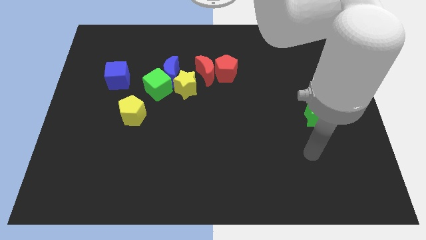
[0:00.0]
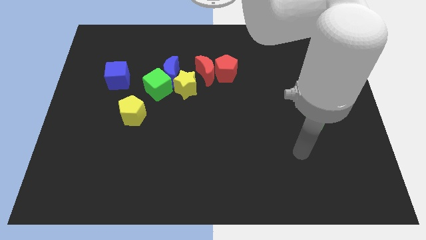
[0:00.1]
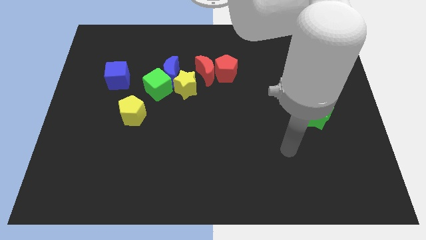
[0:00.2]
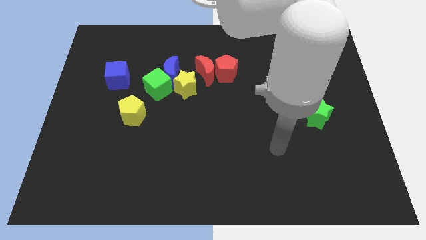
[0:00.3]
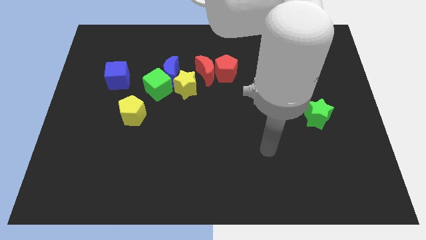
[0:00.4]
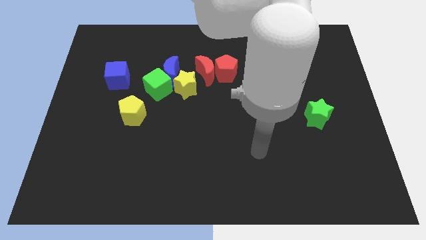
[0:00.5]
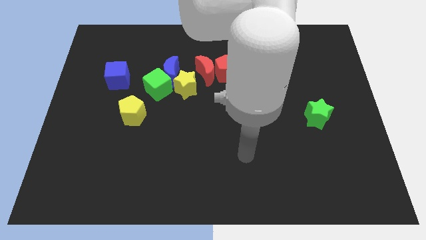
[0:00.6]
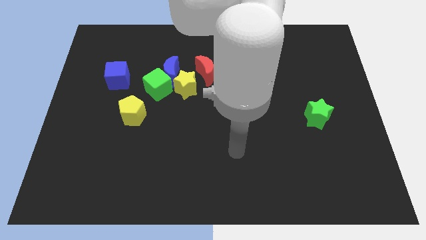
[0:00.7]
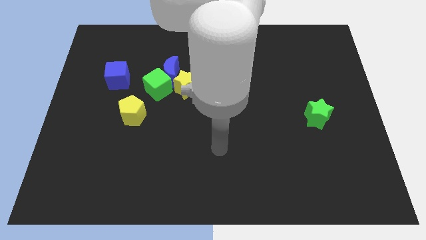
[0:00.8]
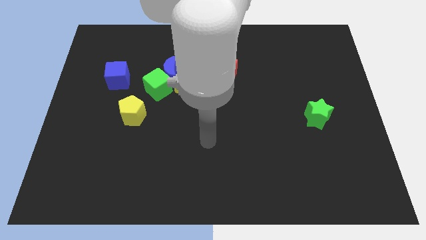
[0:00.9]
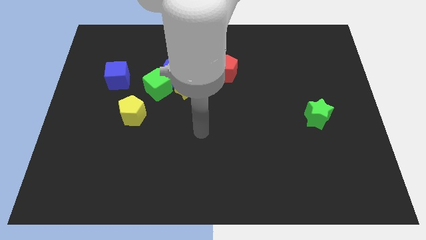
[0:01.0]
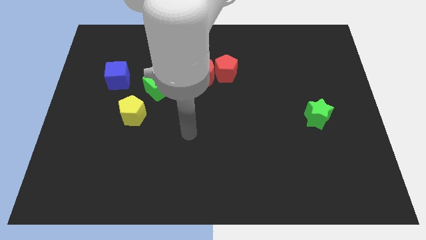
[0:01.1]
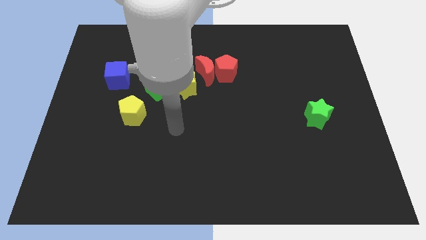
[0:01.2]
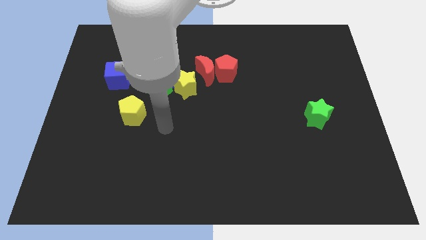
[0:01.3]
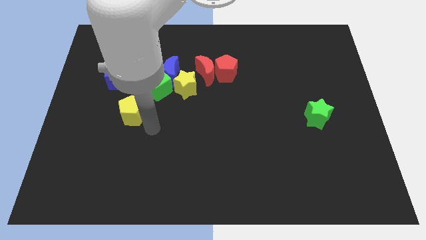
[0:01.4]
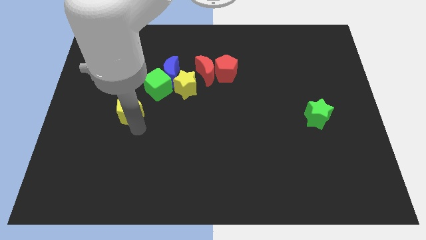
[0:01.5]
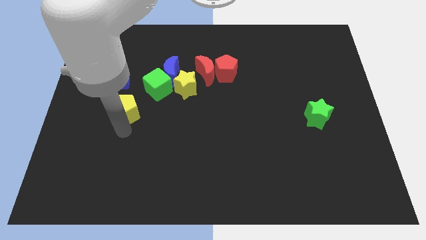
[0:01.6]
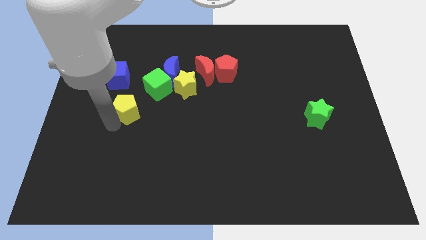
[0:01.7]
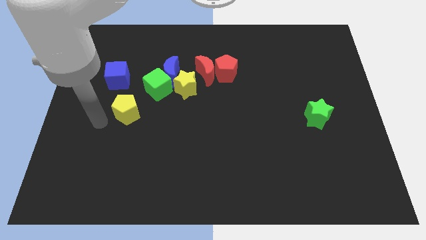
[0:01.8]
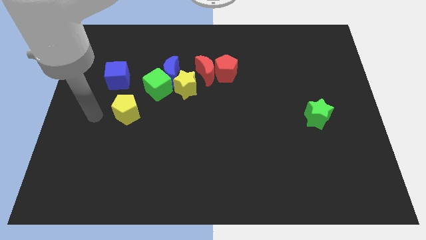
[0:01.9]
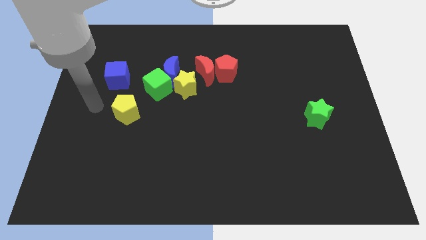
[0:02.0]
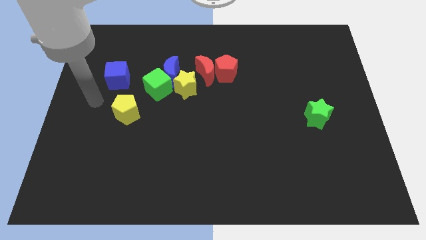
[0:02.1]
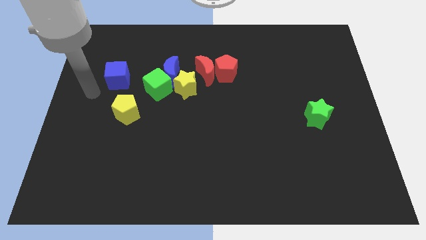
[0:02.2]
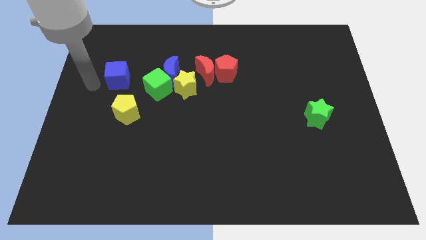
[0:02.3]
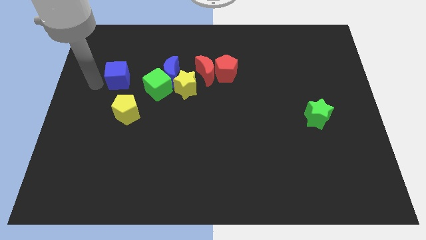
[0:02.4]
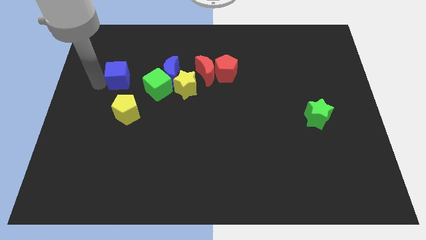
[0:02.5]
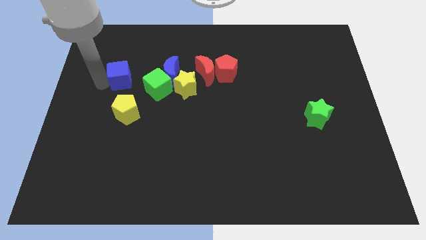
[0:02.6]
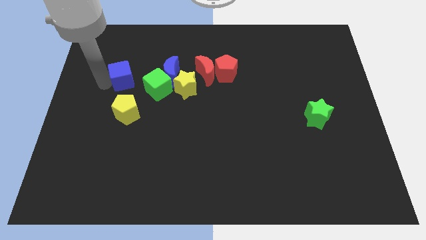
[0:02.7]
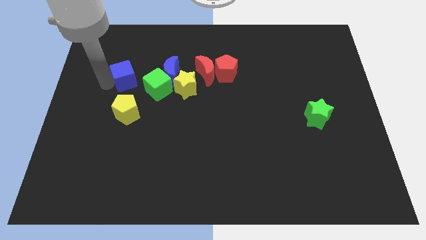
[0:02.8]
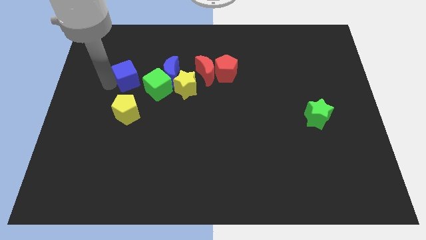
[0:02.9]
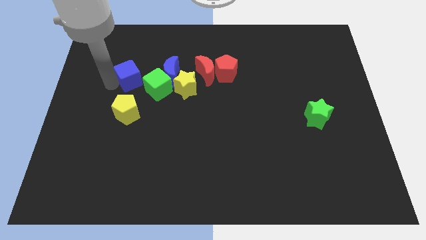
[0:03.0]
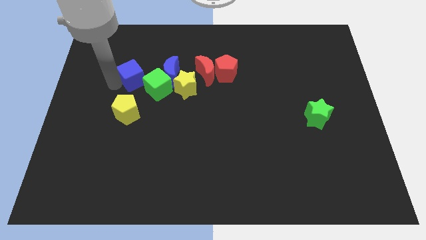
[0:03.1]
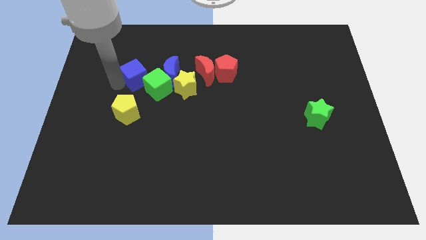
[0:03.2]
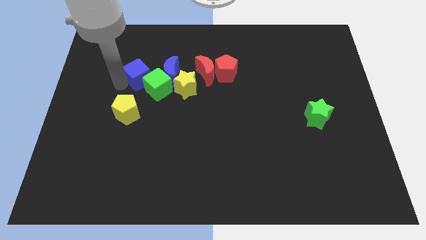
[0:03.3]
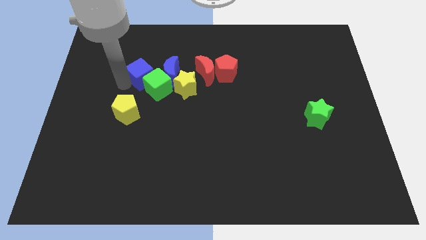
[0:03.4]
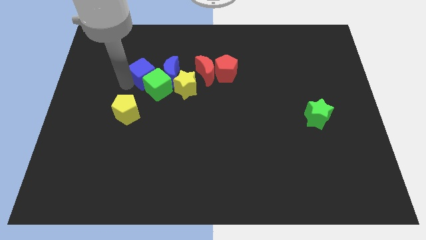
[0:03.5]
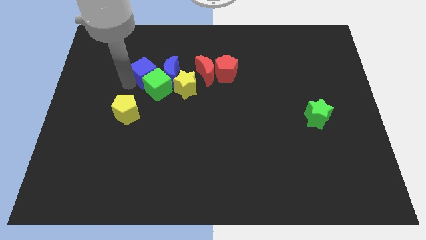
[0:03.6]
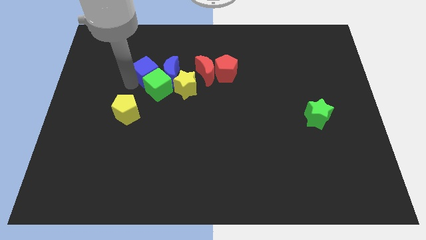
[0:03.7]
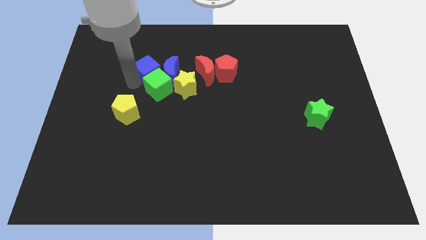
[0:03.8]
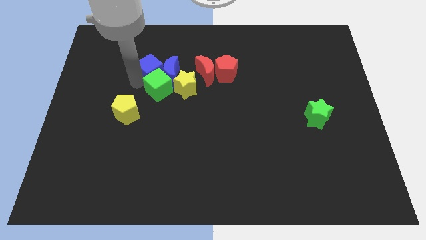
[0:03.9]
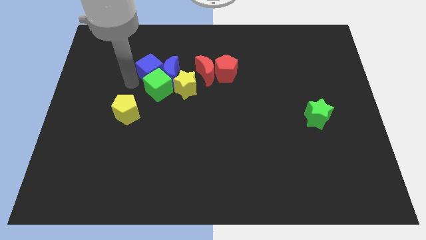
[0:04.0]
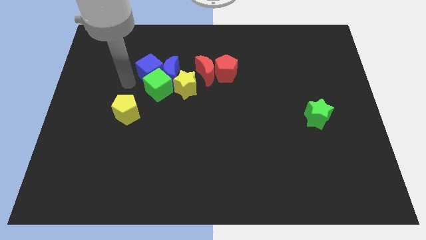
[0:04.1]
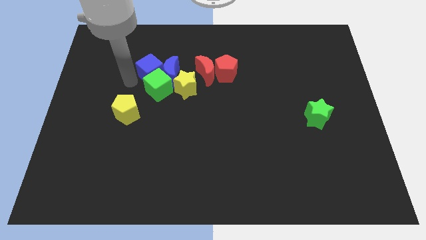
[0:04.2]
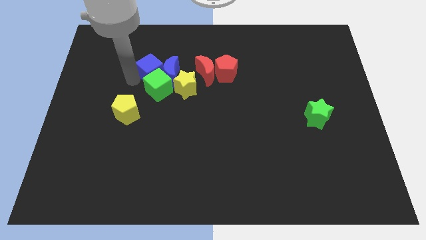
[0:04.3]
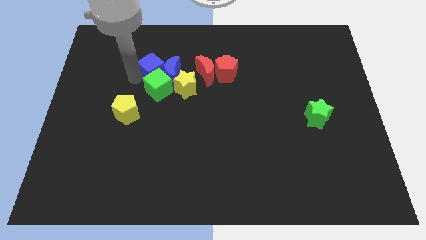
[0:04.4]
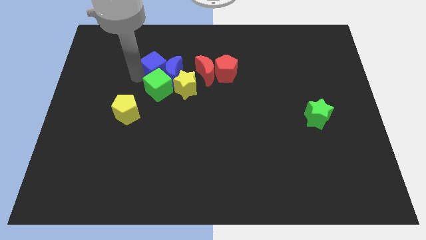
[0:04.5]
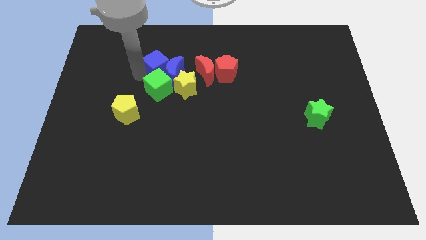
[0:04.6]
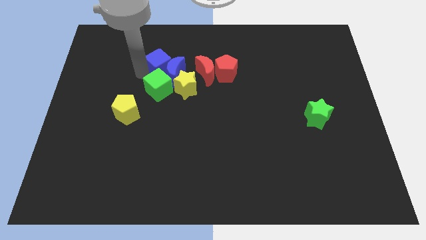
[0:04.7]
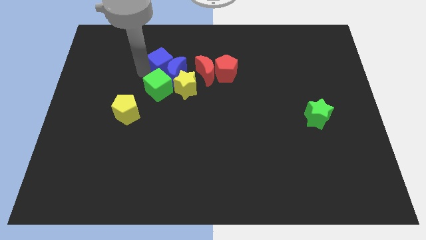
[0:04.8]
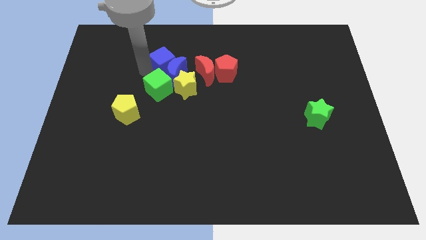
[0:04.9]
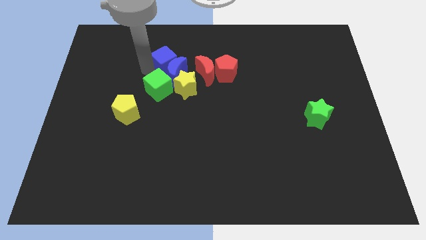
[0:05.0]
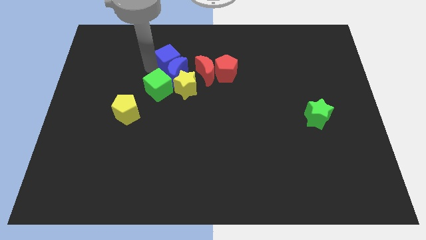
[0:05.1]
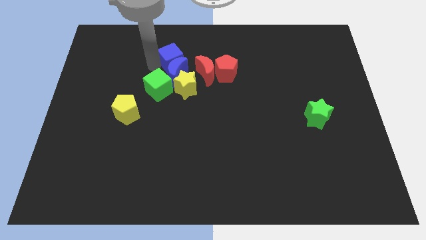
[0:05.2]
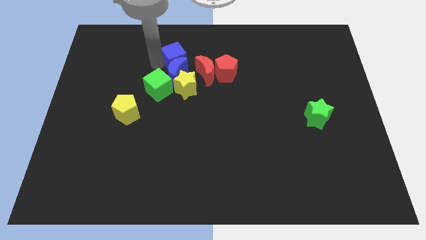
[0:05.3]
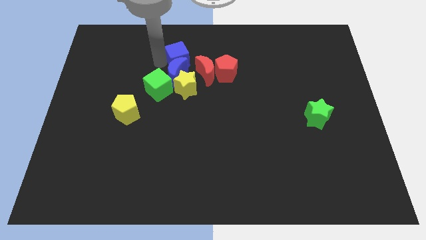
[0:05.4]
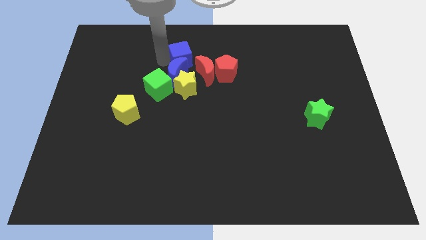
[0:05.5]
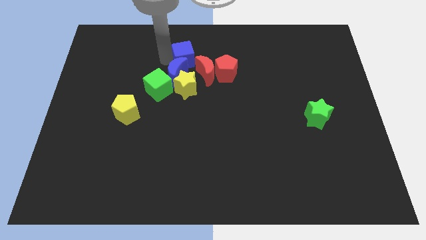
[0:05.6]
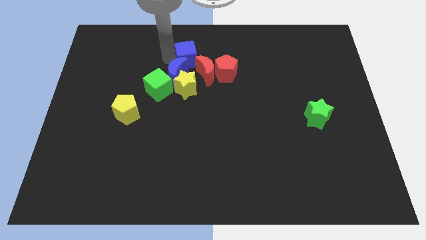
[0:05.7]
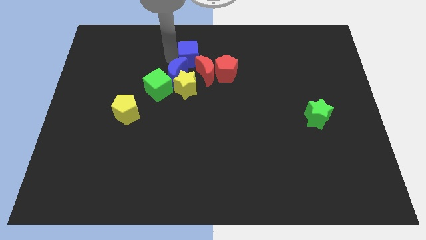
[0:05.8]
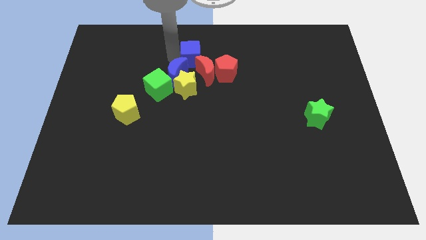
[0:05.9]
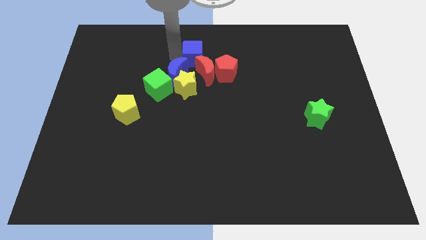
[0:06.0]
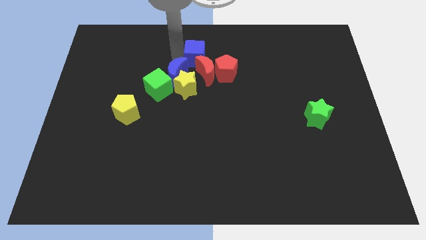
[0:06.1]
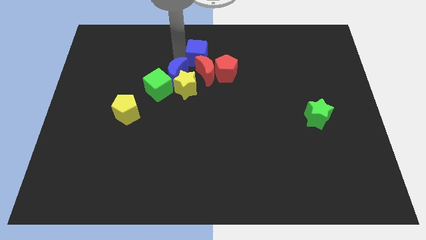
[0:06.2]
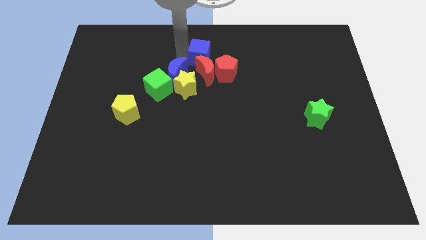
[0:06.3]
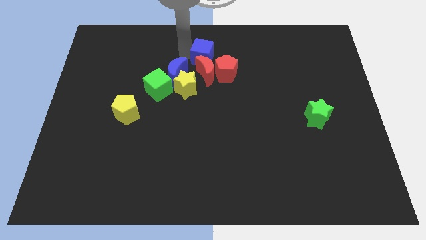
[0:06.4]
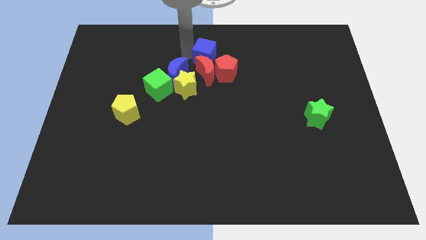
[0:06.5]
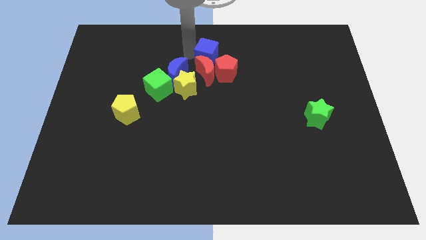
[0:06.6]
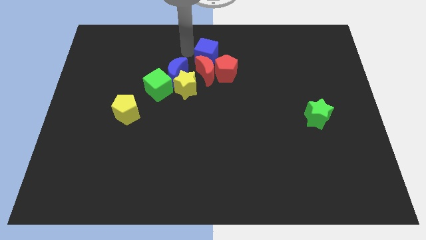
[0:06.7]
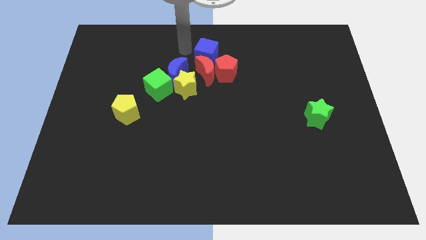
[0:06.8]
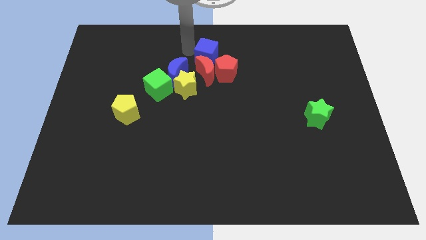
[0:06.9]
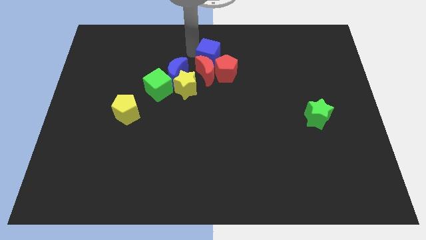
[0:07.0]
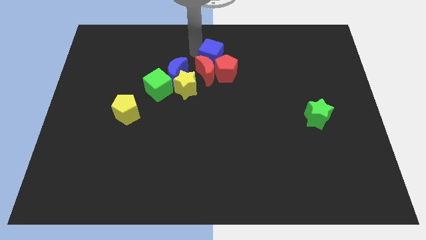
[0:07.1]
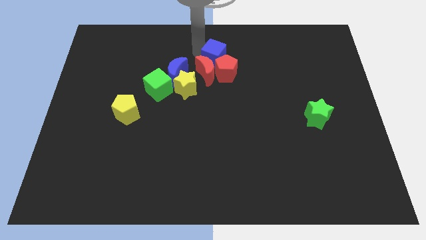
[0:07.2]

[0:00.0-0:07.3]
slide the blue cube to the red pentagon

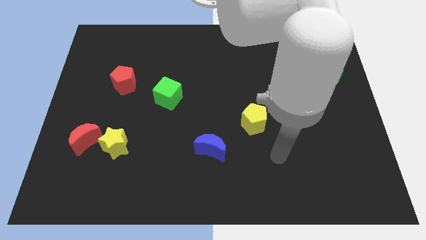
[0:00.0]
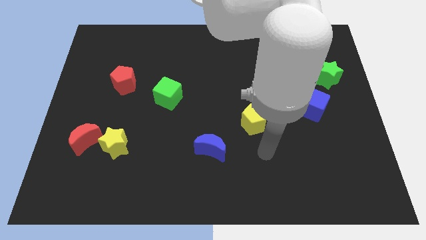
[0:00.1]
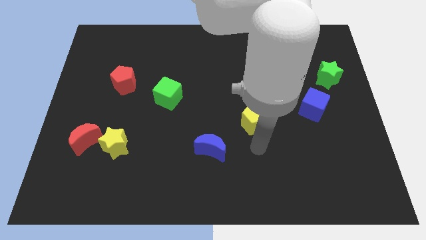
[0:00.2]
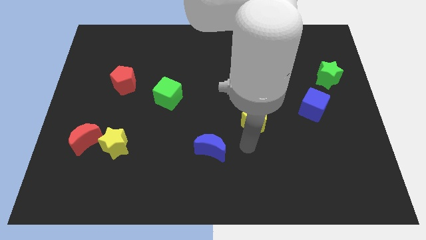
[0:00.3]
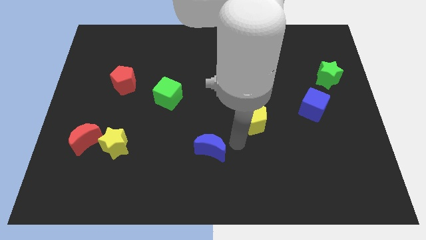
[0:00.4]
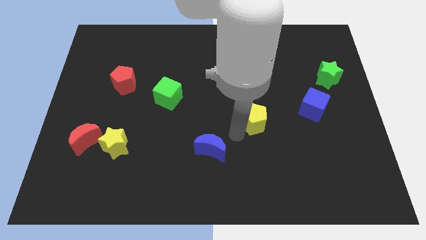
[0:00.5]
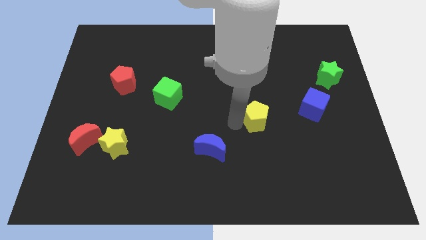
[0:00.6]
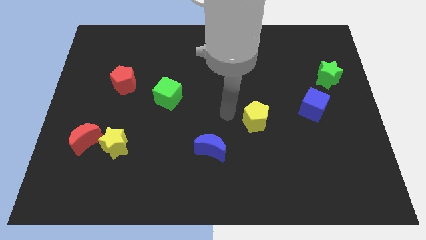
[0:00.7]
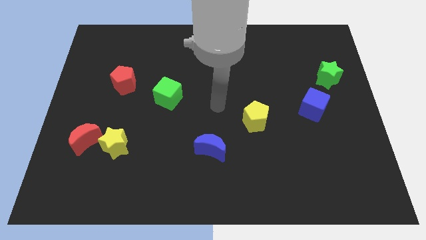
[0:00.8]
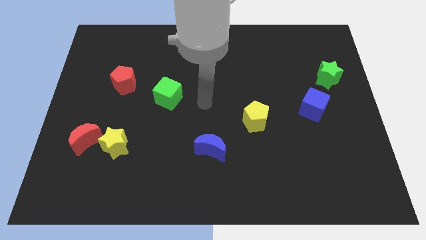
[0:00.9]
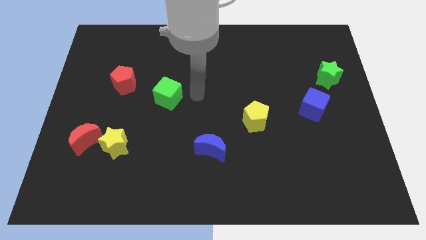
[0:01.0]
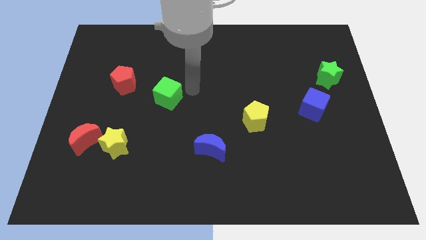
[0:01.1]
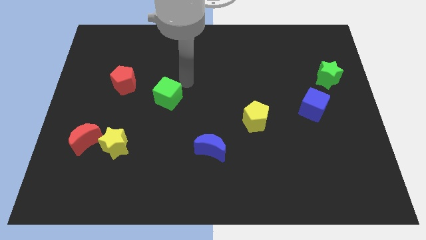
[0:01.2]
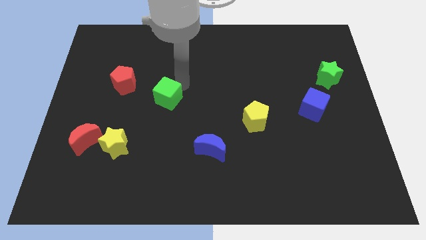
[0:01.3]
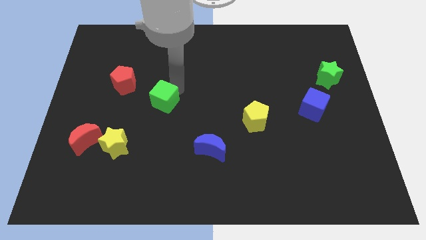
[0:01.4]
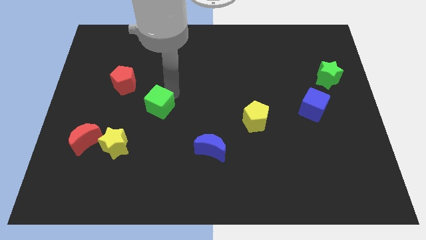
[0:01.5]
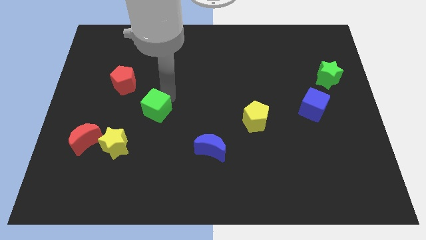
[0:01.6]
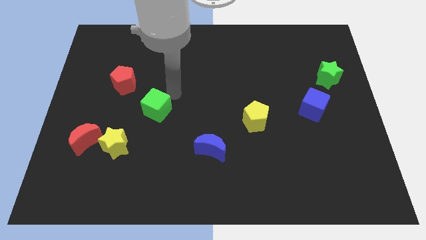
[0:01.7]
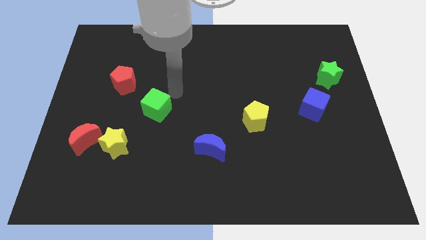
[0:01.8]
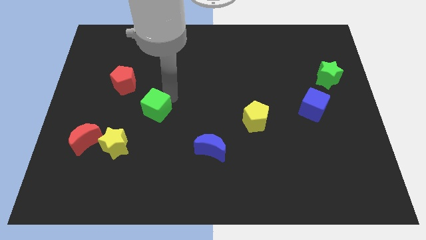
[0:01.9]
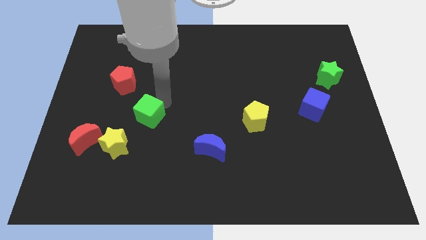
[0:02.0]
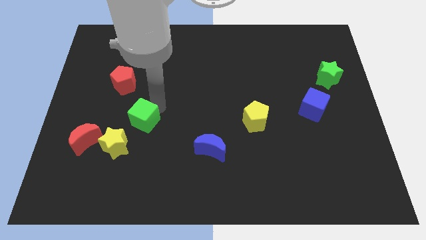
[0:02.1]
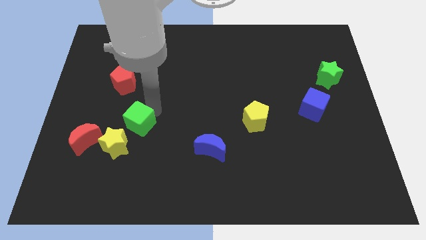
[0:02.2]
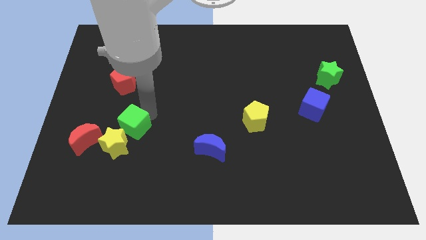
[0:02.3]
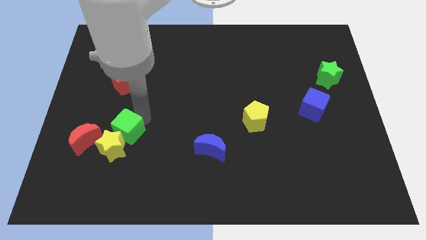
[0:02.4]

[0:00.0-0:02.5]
put the green cube next to the yellow star
